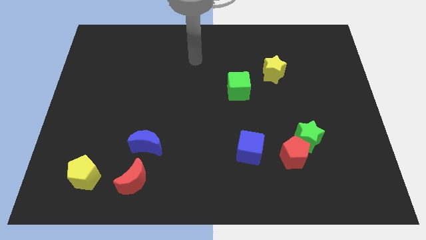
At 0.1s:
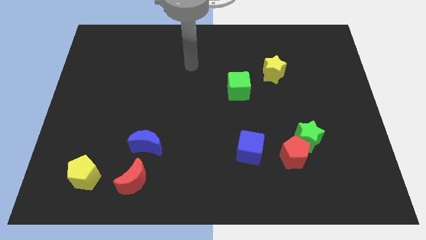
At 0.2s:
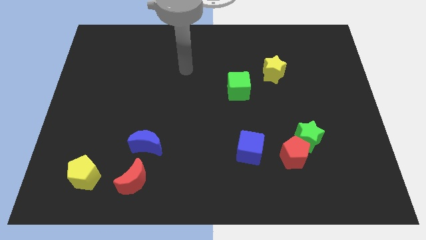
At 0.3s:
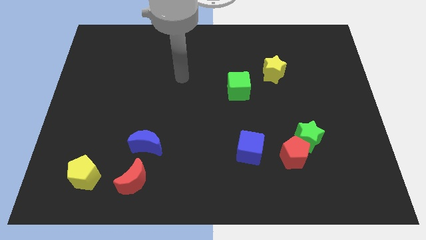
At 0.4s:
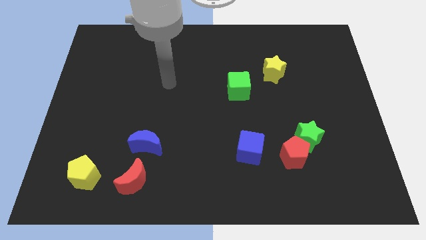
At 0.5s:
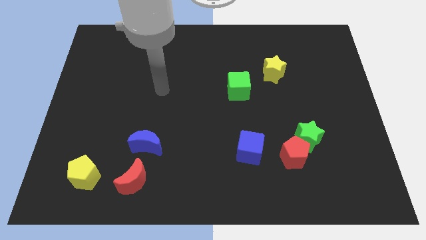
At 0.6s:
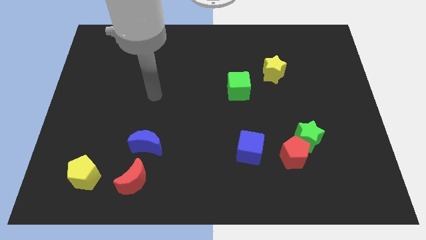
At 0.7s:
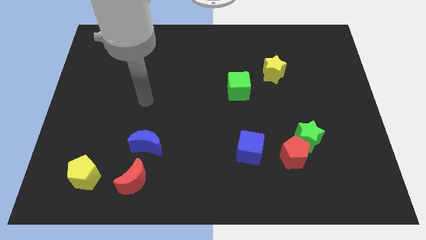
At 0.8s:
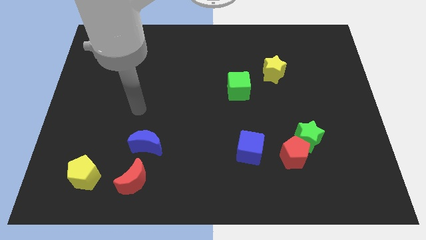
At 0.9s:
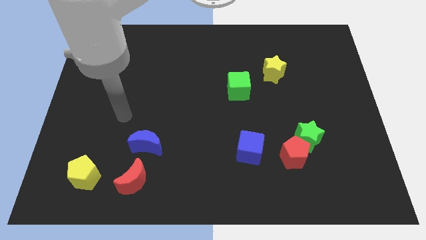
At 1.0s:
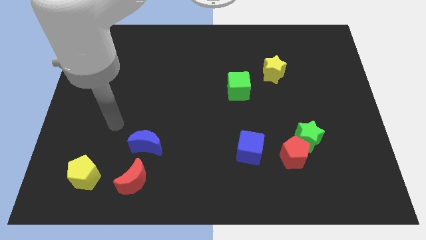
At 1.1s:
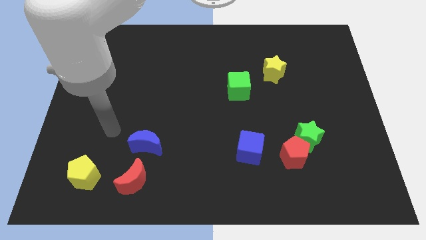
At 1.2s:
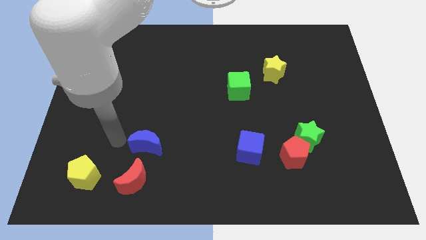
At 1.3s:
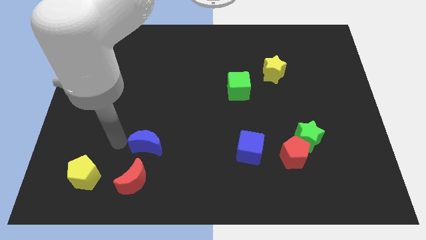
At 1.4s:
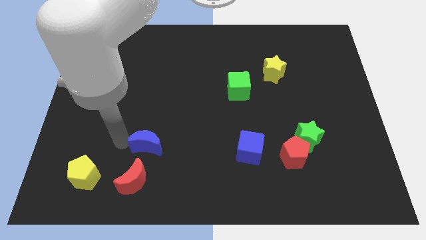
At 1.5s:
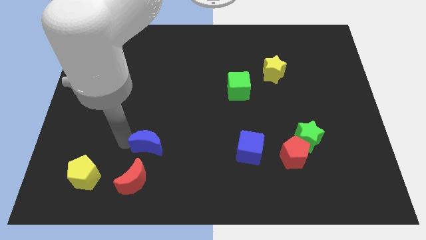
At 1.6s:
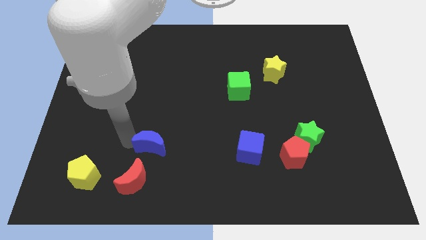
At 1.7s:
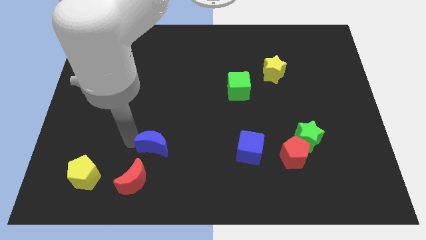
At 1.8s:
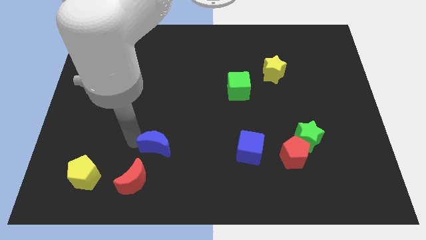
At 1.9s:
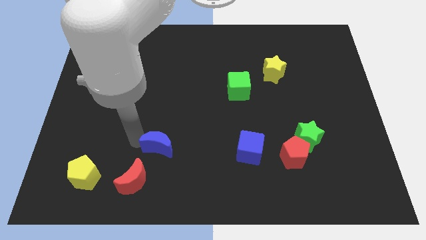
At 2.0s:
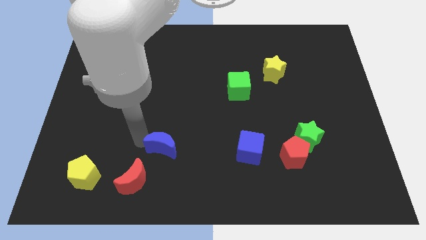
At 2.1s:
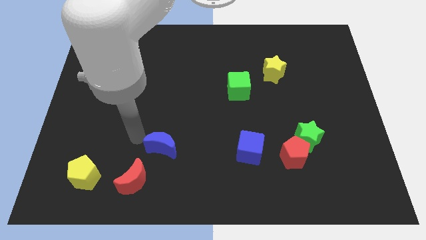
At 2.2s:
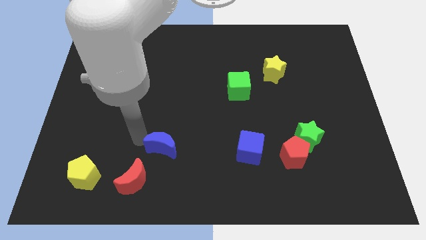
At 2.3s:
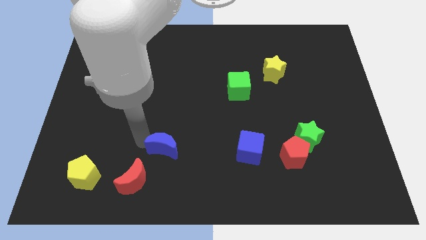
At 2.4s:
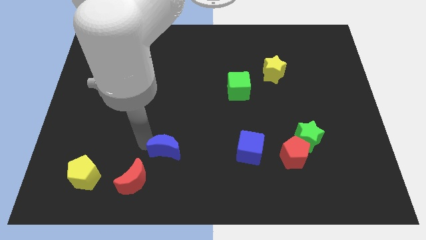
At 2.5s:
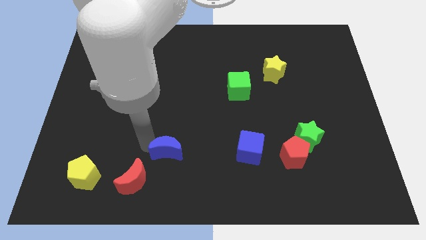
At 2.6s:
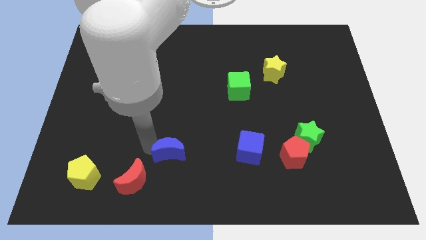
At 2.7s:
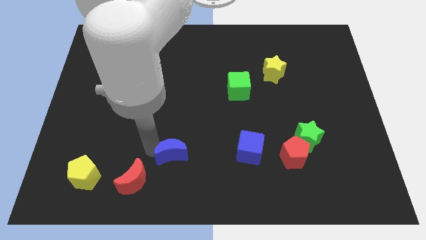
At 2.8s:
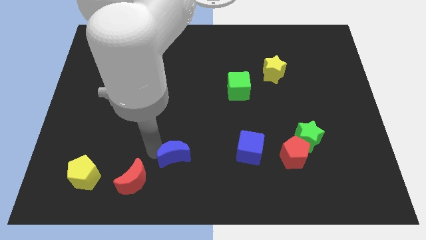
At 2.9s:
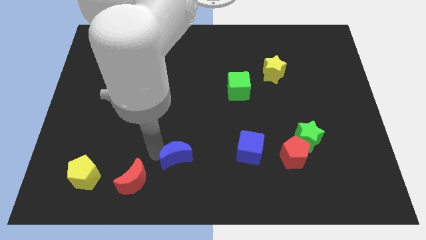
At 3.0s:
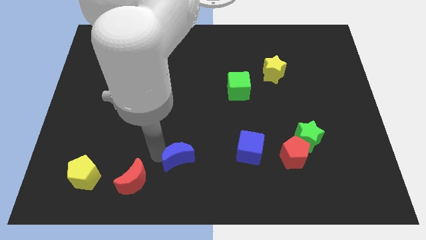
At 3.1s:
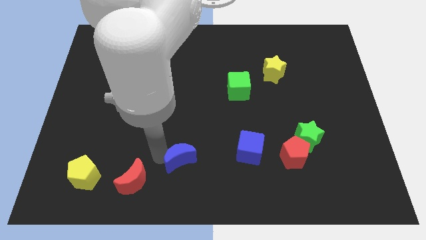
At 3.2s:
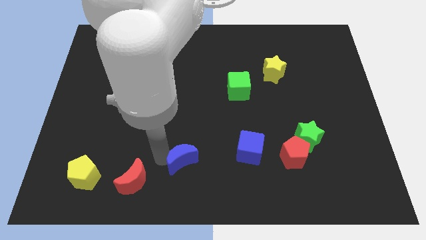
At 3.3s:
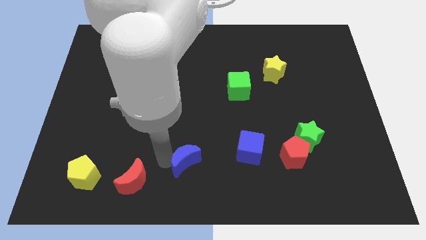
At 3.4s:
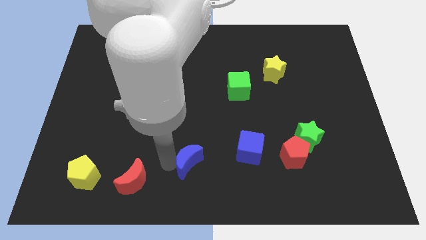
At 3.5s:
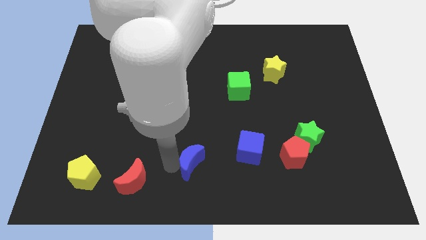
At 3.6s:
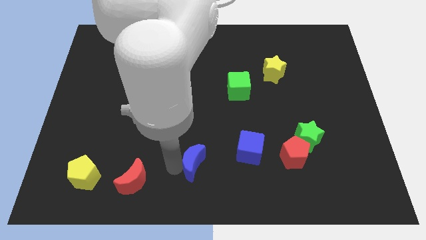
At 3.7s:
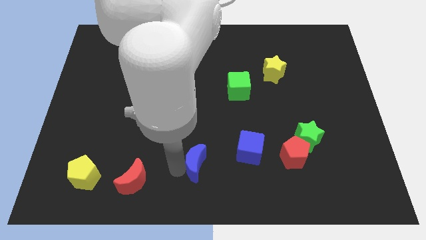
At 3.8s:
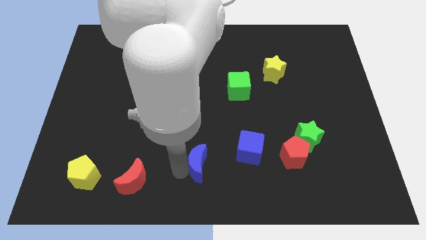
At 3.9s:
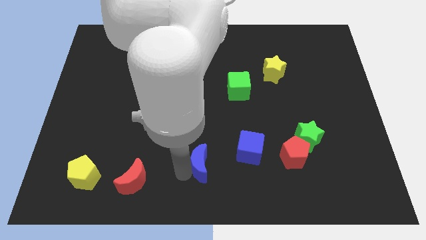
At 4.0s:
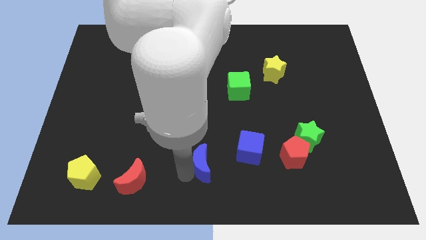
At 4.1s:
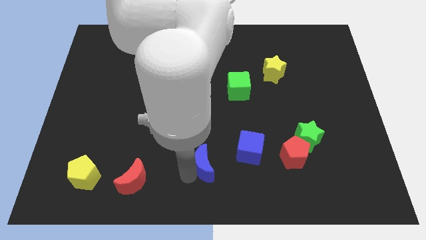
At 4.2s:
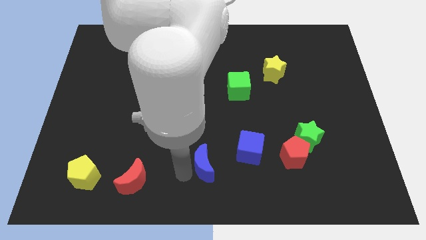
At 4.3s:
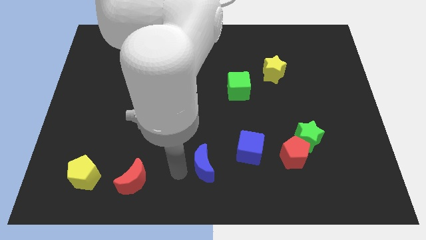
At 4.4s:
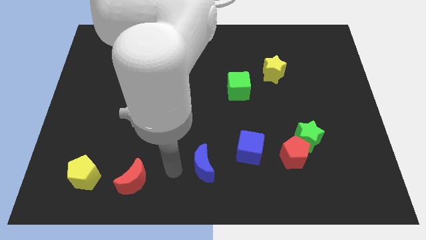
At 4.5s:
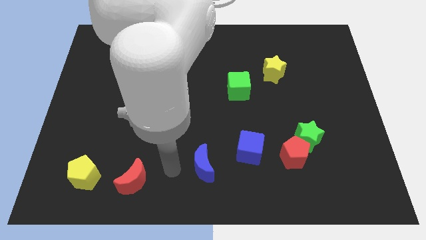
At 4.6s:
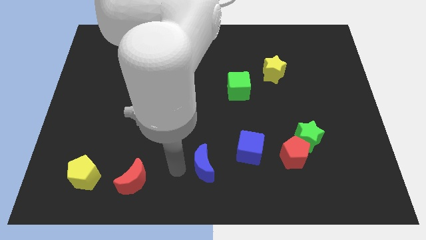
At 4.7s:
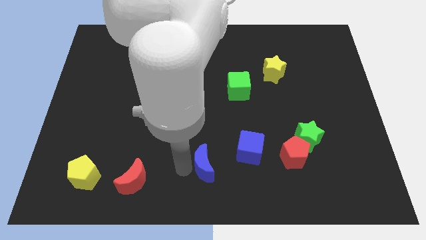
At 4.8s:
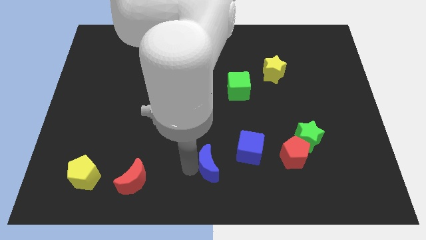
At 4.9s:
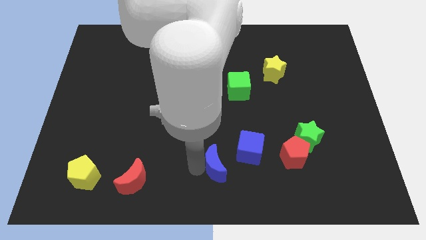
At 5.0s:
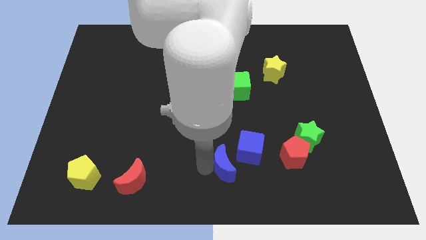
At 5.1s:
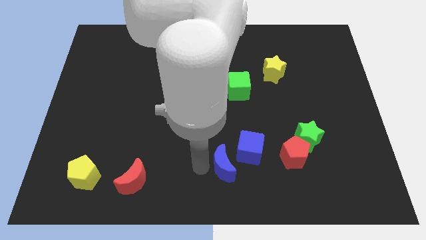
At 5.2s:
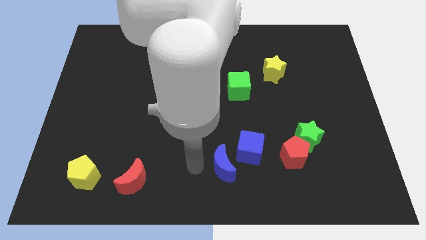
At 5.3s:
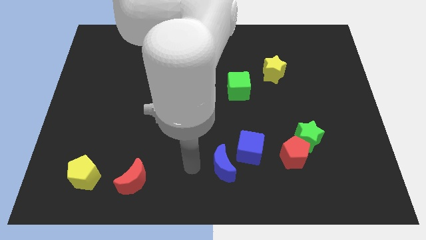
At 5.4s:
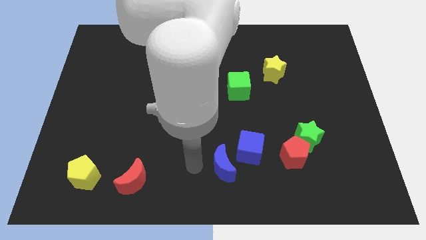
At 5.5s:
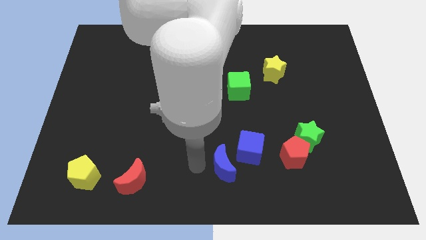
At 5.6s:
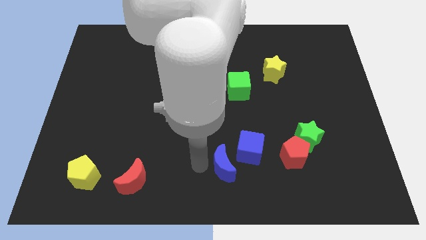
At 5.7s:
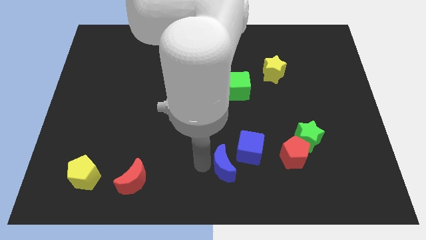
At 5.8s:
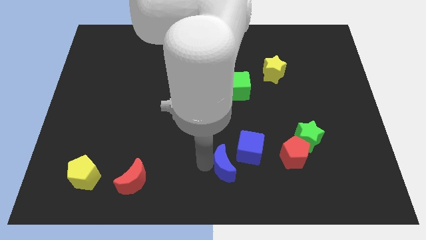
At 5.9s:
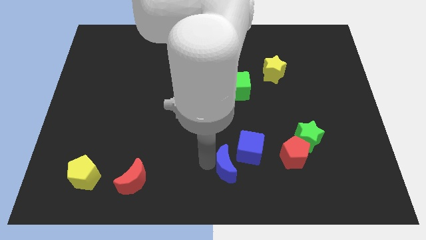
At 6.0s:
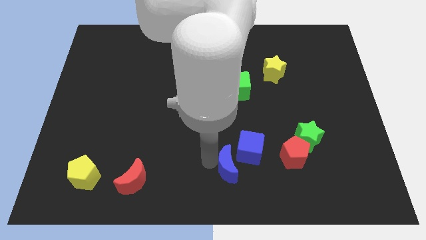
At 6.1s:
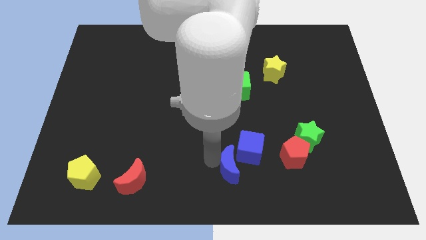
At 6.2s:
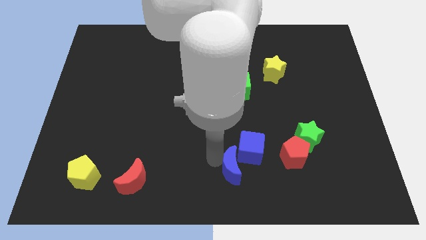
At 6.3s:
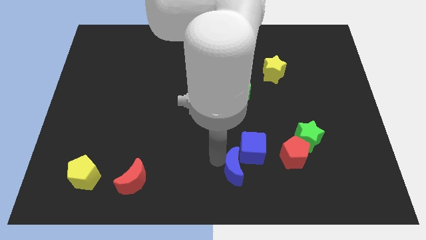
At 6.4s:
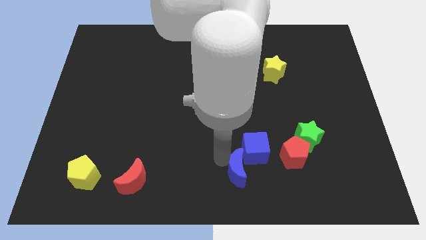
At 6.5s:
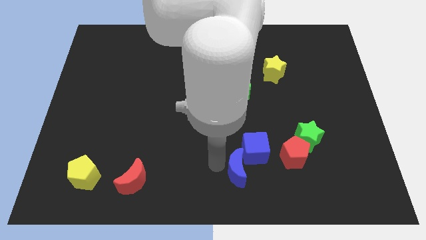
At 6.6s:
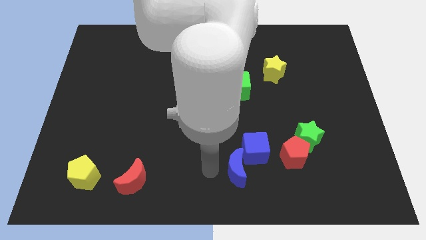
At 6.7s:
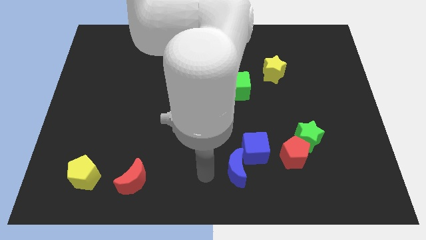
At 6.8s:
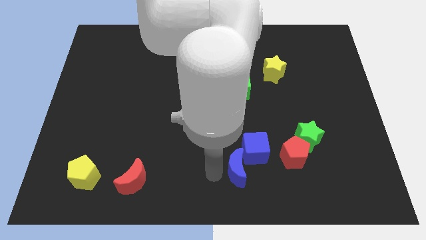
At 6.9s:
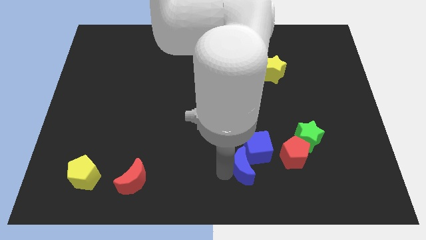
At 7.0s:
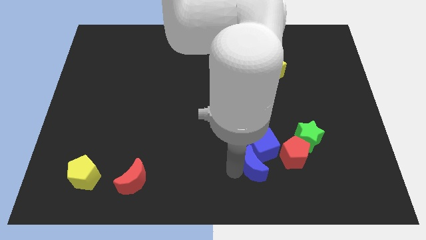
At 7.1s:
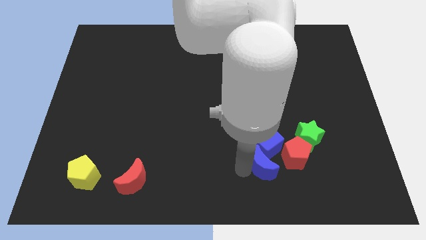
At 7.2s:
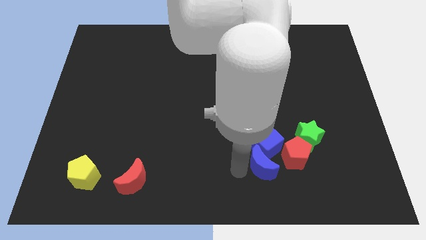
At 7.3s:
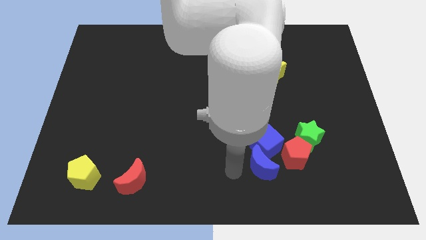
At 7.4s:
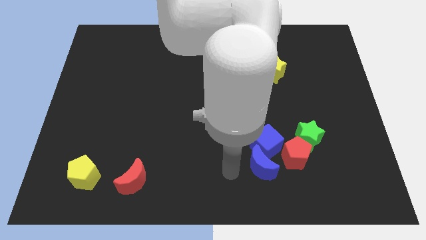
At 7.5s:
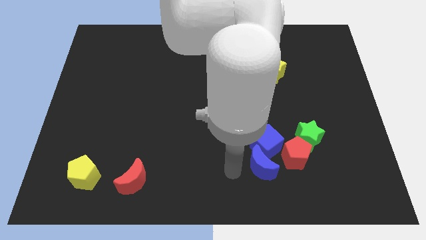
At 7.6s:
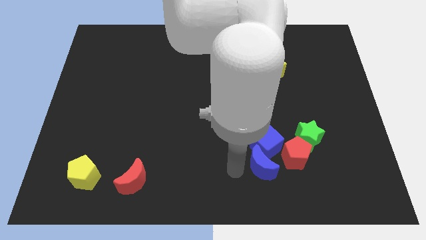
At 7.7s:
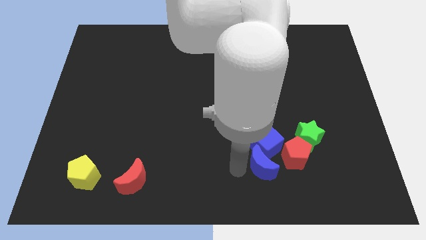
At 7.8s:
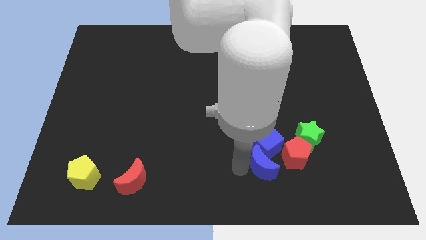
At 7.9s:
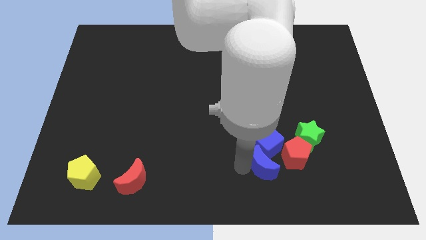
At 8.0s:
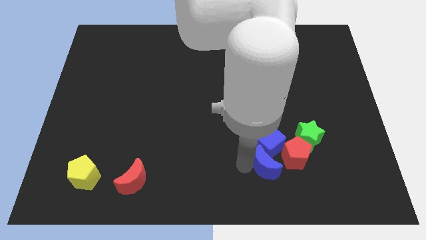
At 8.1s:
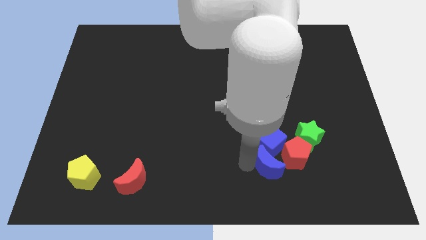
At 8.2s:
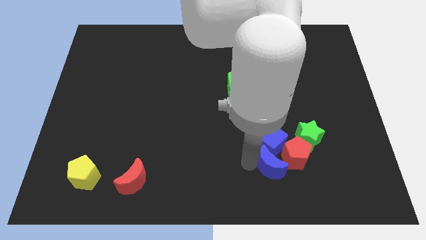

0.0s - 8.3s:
slide the blue moon close to the red pentagon
